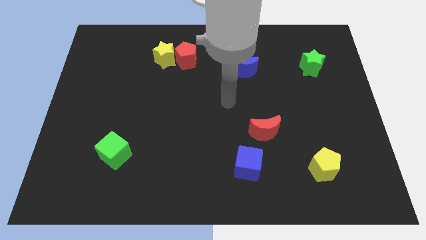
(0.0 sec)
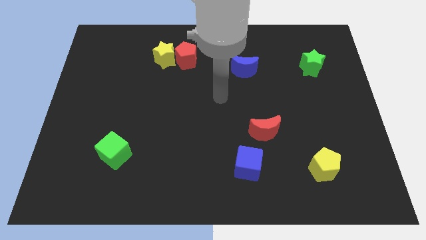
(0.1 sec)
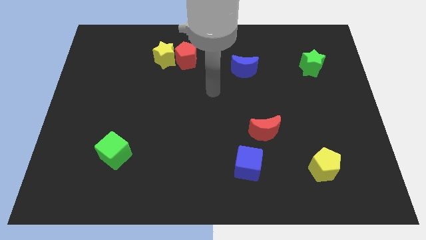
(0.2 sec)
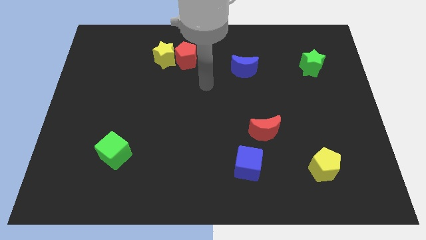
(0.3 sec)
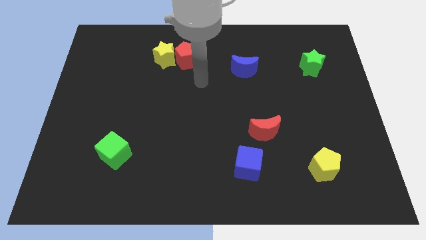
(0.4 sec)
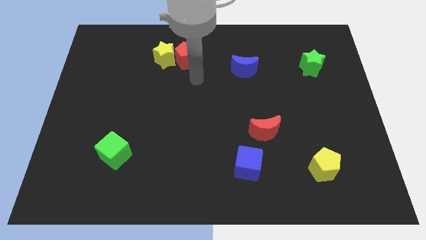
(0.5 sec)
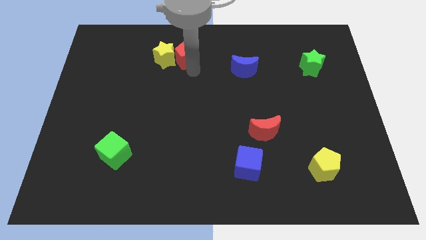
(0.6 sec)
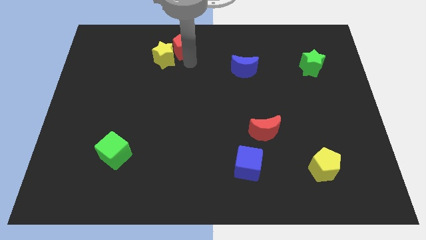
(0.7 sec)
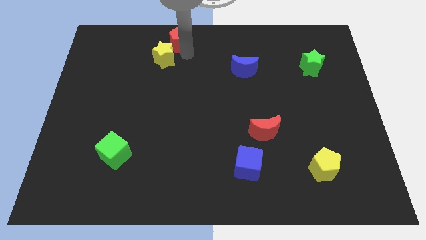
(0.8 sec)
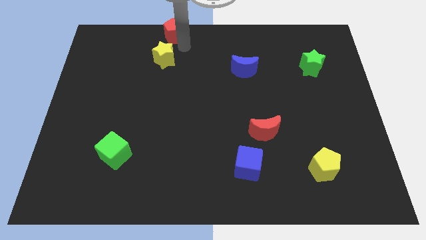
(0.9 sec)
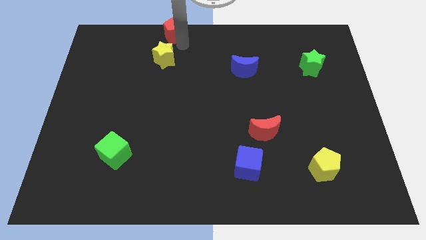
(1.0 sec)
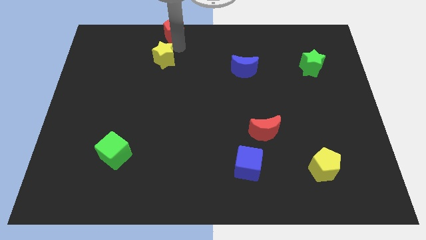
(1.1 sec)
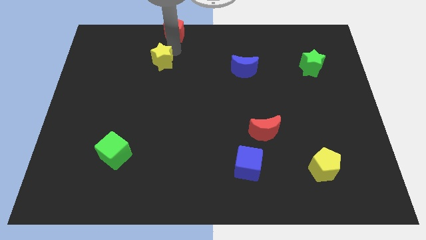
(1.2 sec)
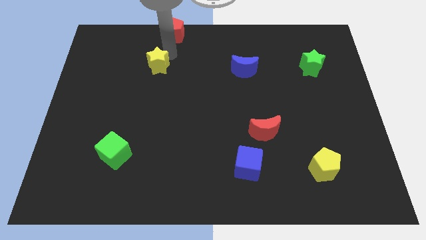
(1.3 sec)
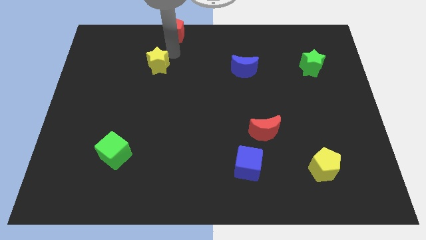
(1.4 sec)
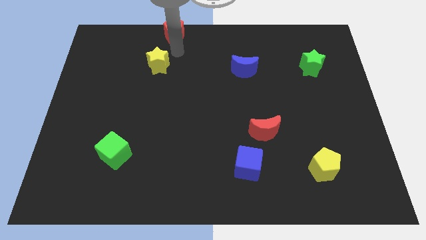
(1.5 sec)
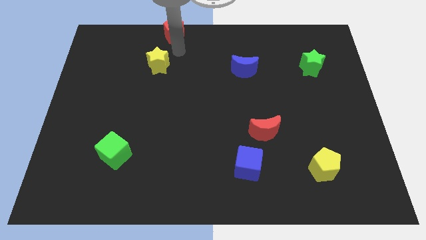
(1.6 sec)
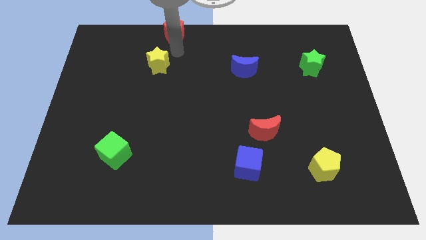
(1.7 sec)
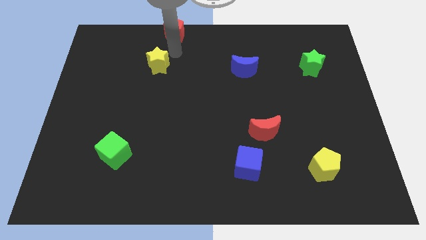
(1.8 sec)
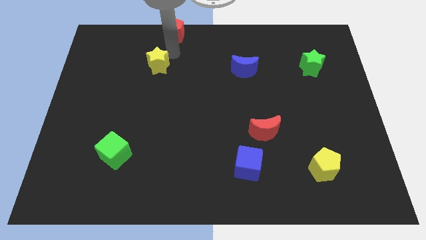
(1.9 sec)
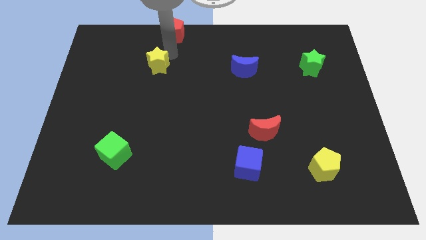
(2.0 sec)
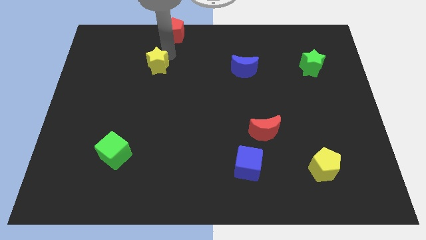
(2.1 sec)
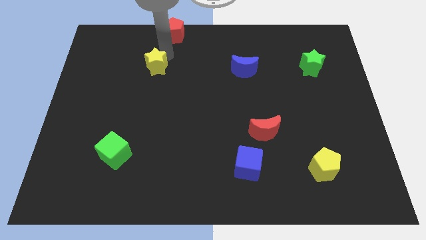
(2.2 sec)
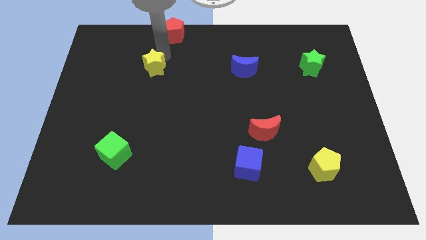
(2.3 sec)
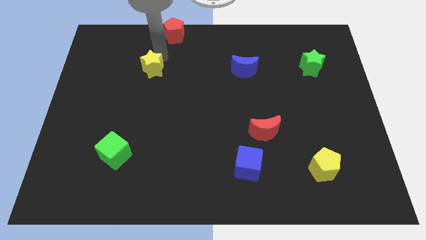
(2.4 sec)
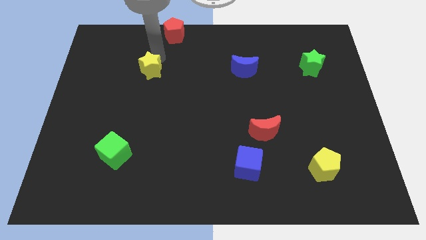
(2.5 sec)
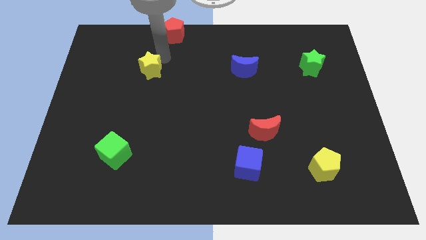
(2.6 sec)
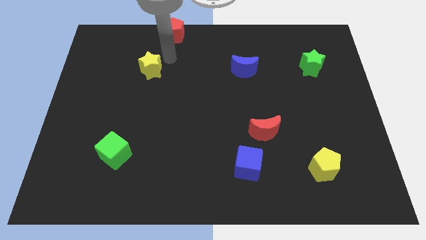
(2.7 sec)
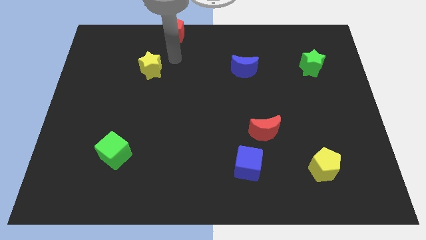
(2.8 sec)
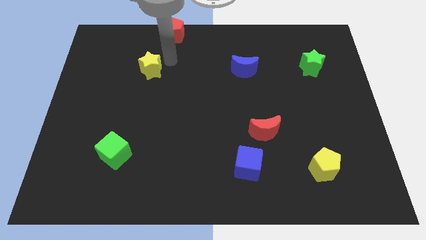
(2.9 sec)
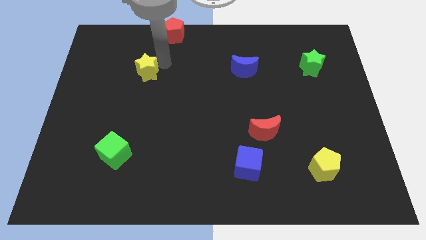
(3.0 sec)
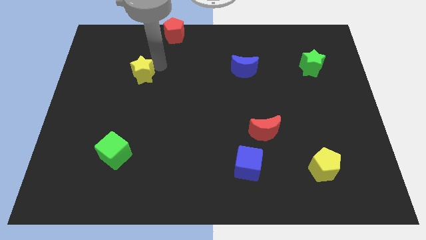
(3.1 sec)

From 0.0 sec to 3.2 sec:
move the yellow star a little bit down and left

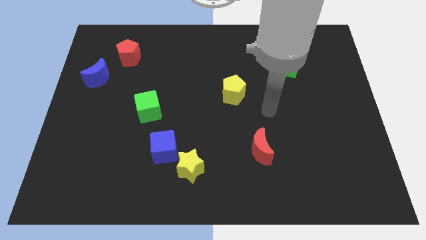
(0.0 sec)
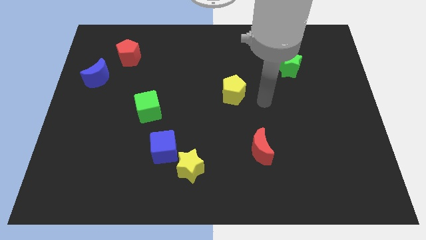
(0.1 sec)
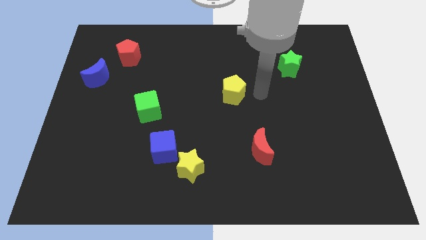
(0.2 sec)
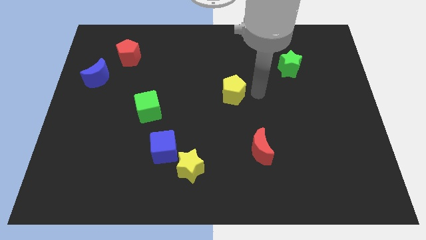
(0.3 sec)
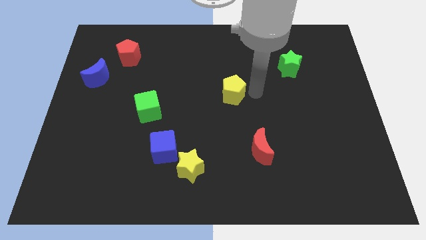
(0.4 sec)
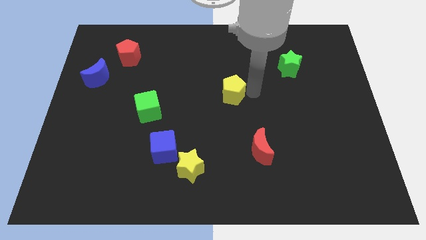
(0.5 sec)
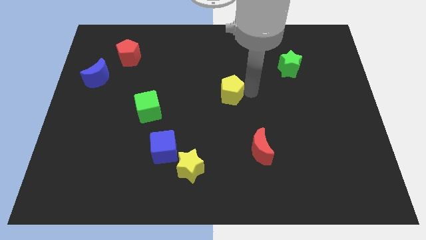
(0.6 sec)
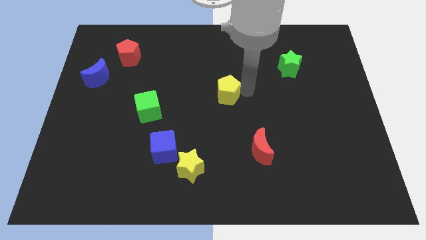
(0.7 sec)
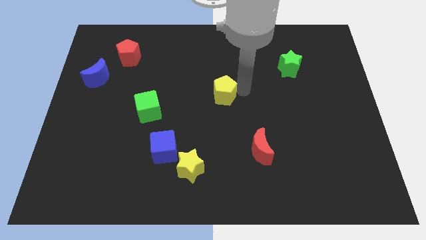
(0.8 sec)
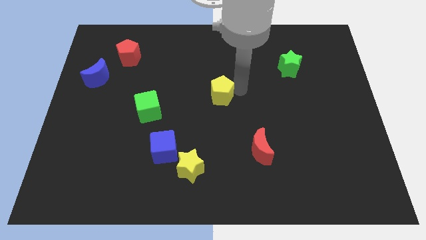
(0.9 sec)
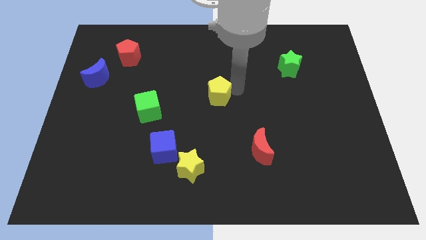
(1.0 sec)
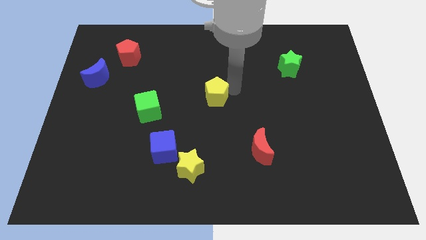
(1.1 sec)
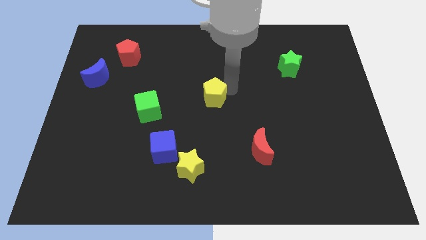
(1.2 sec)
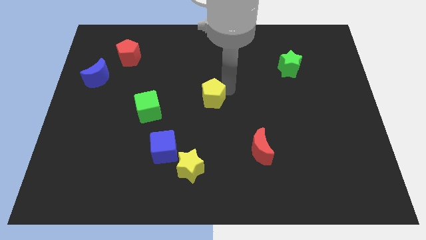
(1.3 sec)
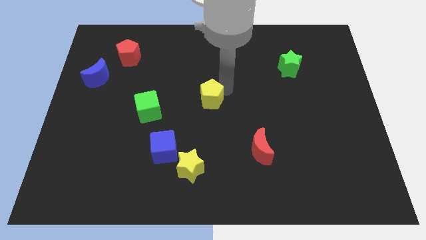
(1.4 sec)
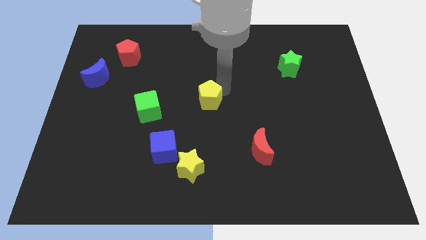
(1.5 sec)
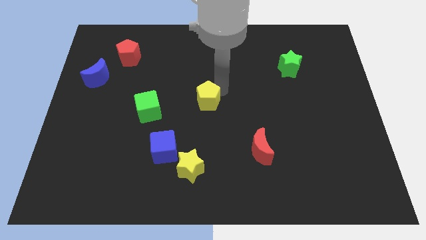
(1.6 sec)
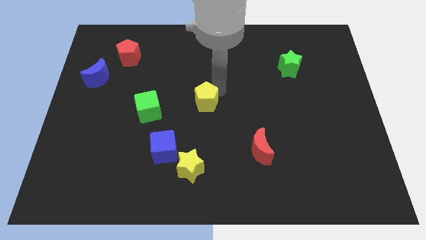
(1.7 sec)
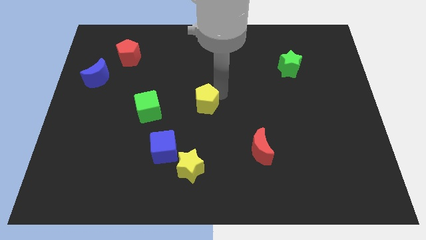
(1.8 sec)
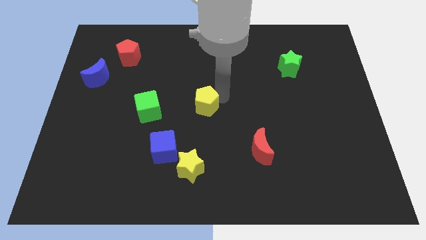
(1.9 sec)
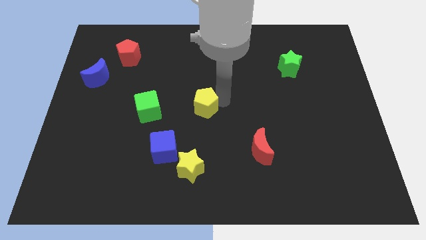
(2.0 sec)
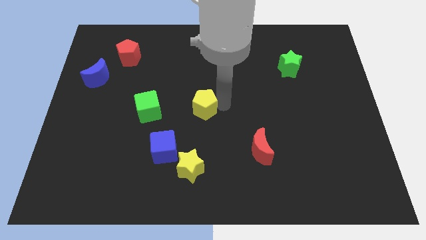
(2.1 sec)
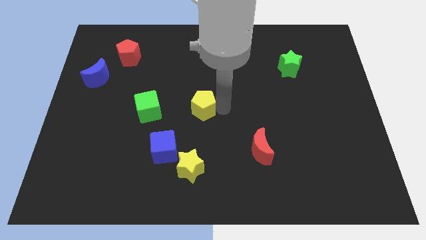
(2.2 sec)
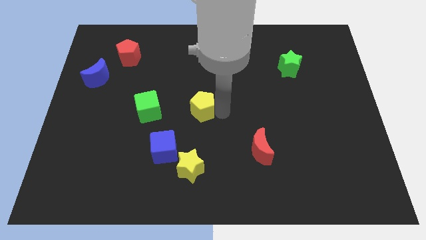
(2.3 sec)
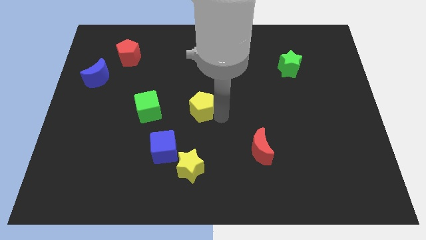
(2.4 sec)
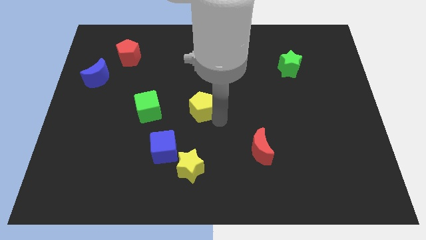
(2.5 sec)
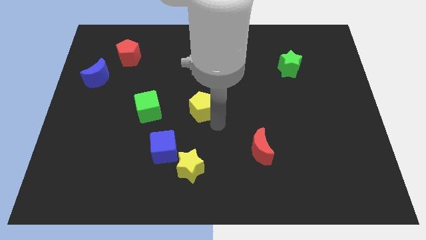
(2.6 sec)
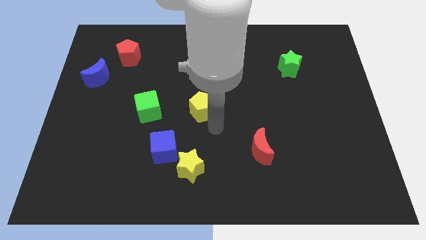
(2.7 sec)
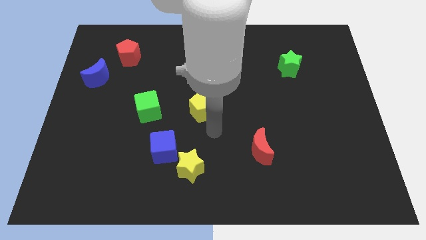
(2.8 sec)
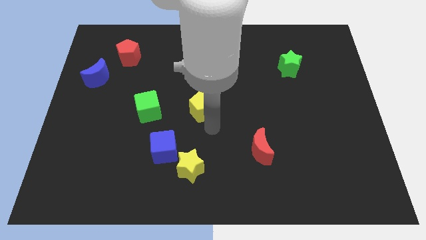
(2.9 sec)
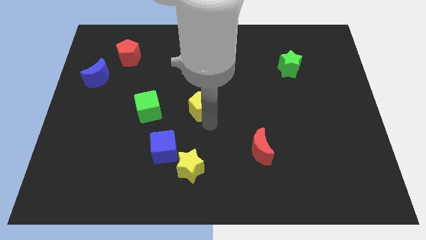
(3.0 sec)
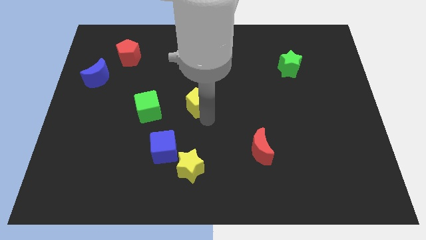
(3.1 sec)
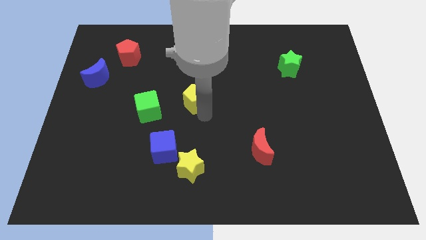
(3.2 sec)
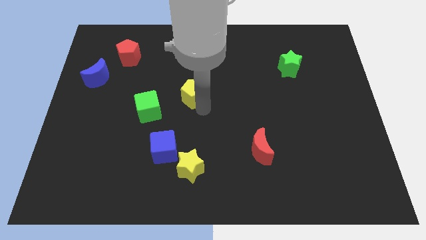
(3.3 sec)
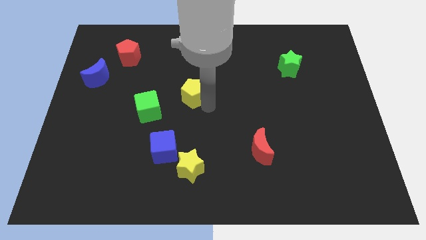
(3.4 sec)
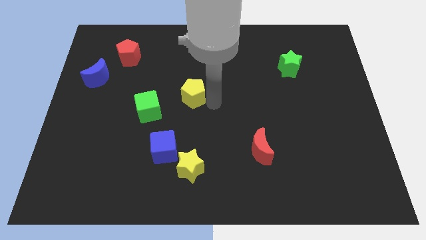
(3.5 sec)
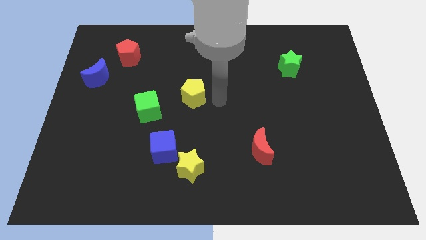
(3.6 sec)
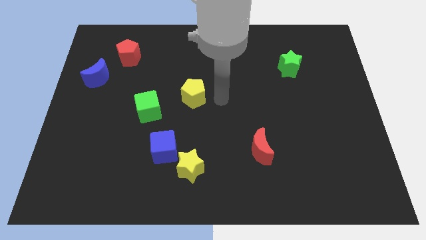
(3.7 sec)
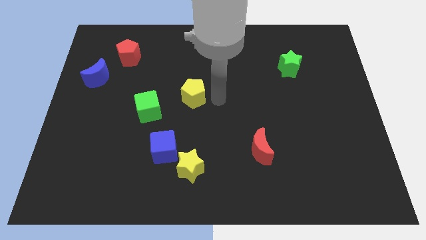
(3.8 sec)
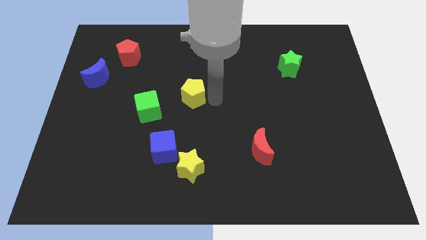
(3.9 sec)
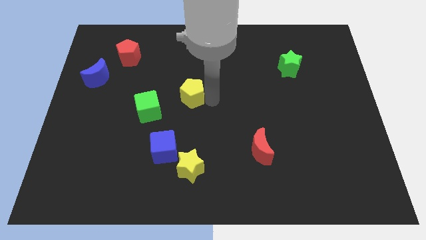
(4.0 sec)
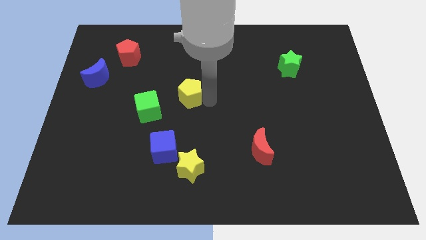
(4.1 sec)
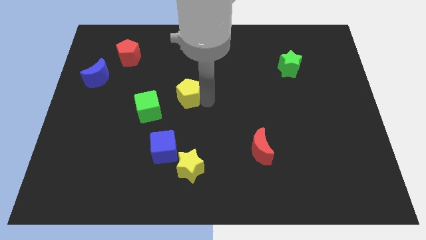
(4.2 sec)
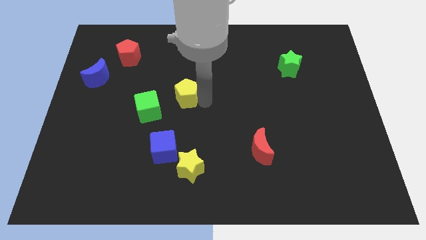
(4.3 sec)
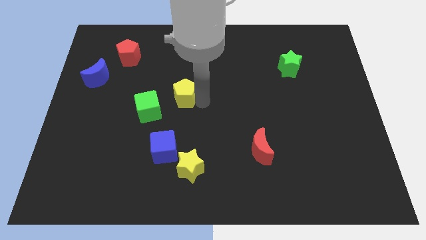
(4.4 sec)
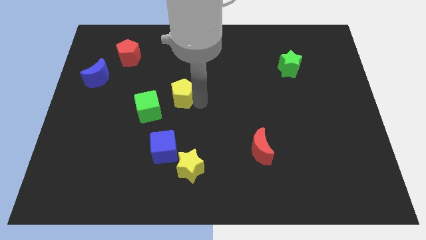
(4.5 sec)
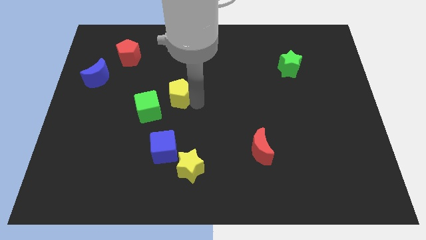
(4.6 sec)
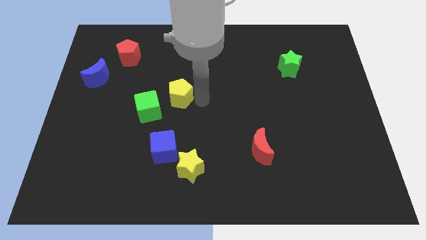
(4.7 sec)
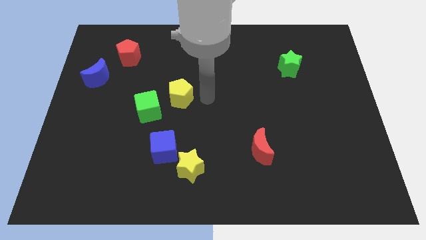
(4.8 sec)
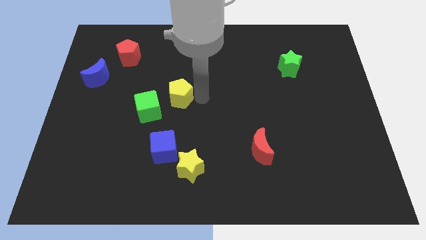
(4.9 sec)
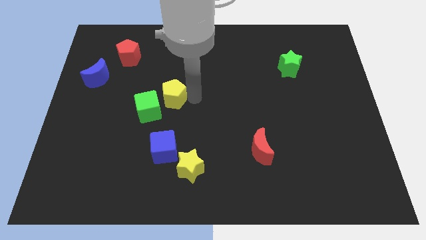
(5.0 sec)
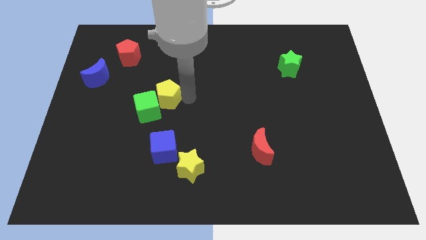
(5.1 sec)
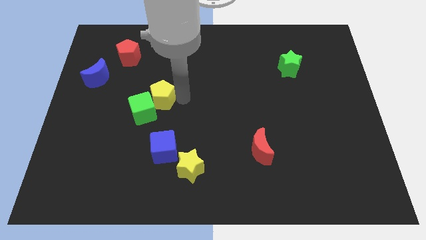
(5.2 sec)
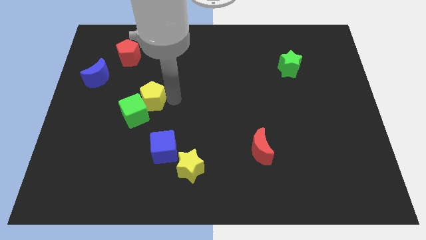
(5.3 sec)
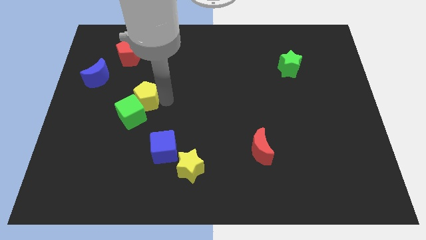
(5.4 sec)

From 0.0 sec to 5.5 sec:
move the yellow pentagon left
